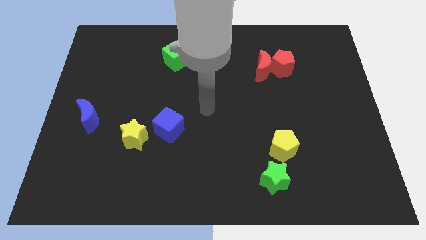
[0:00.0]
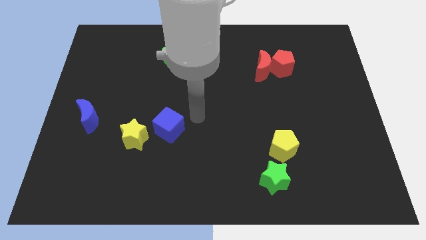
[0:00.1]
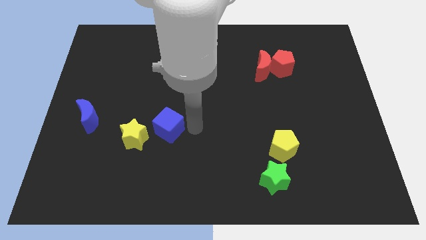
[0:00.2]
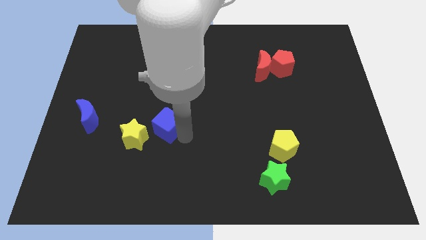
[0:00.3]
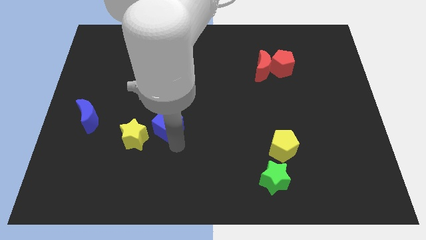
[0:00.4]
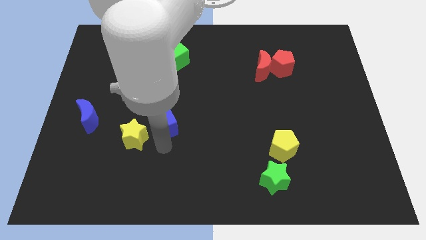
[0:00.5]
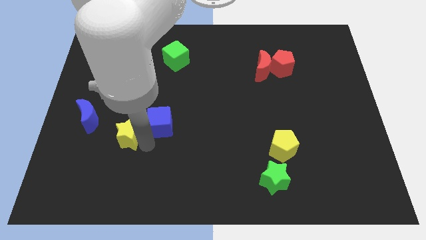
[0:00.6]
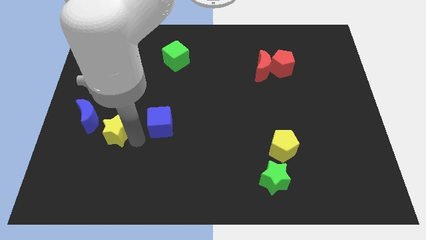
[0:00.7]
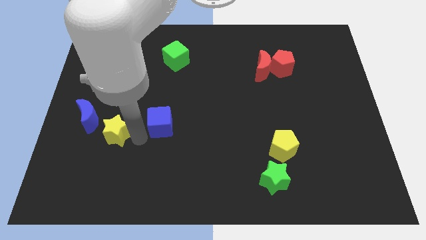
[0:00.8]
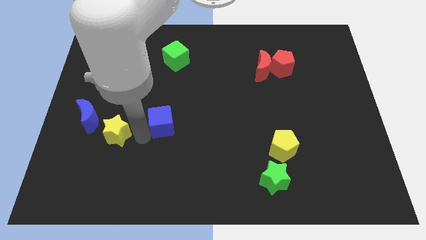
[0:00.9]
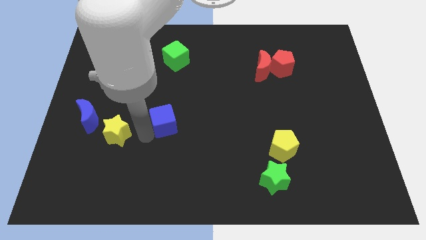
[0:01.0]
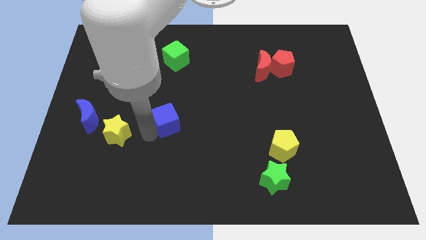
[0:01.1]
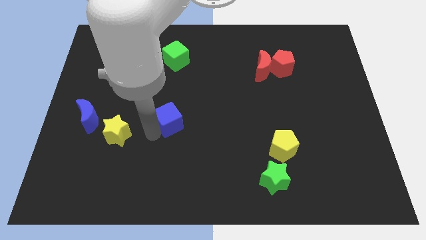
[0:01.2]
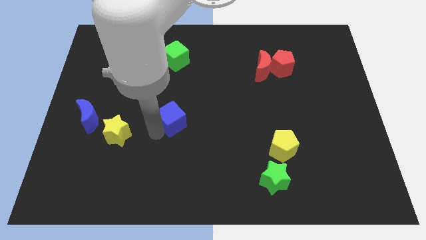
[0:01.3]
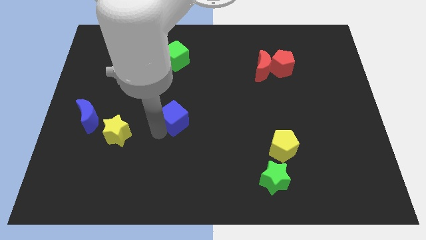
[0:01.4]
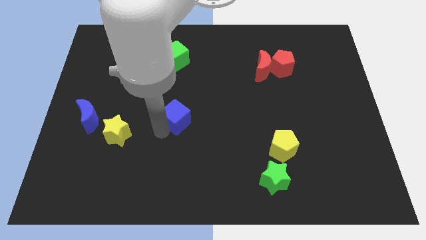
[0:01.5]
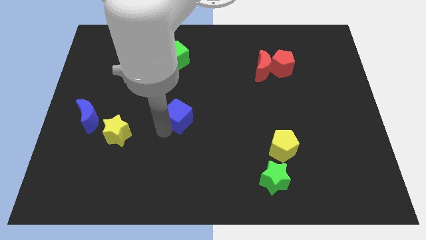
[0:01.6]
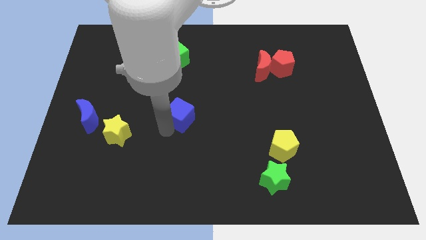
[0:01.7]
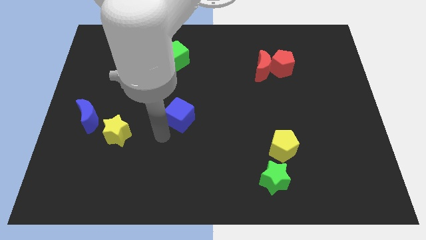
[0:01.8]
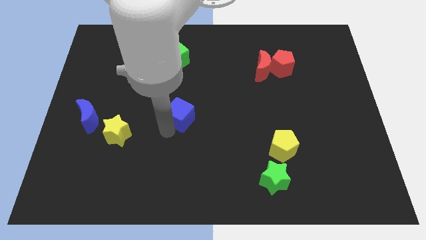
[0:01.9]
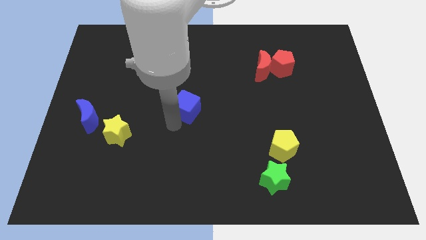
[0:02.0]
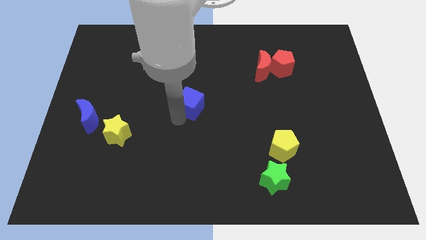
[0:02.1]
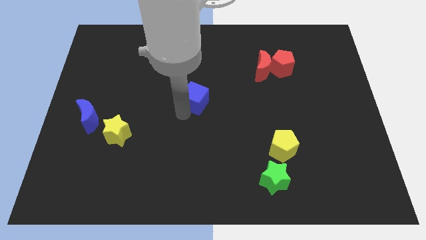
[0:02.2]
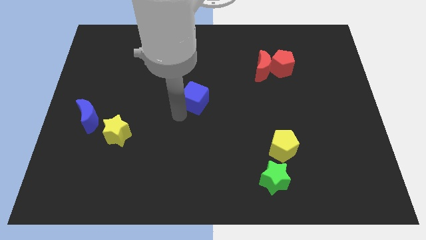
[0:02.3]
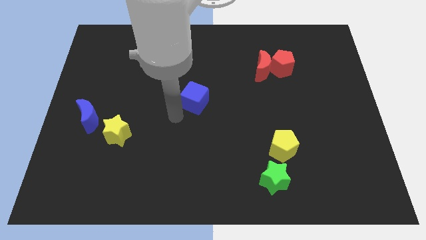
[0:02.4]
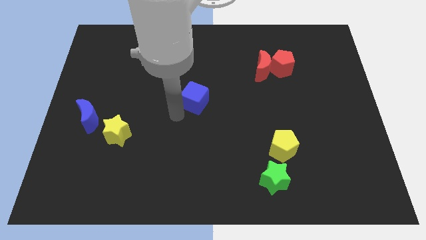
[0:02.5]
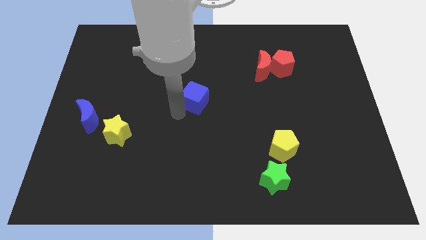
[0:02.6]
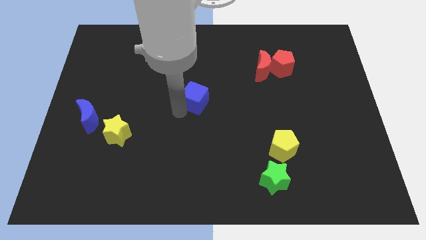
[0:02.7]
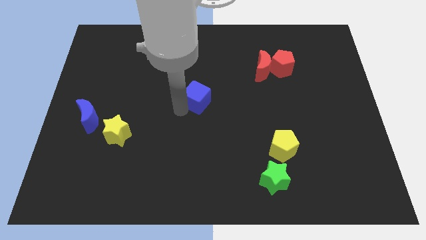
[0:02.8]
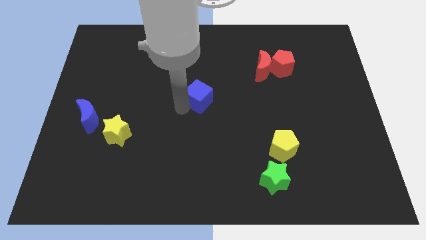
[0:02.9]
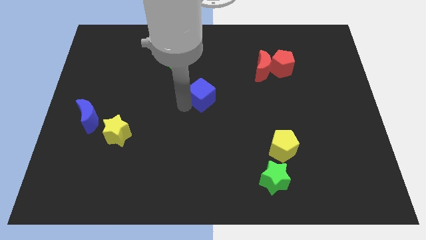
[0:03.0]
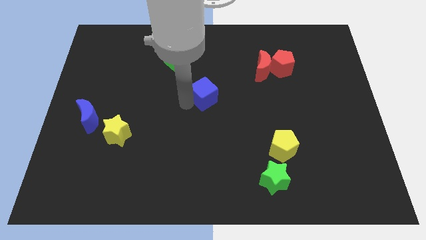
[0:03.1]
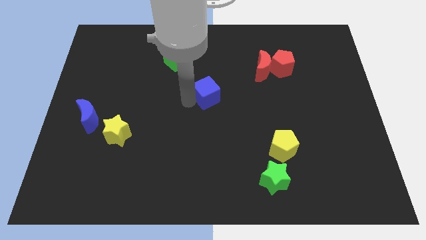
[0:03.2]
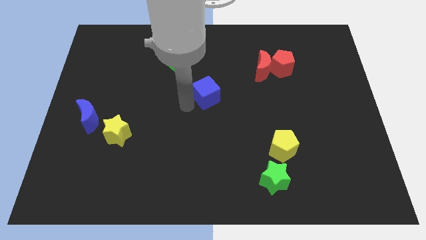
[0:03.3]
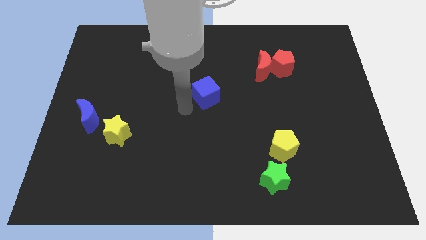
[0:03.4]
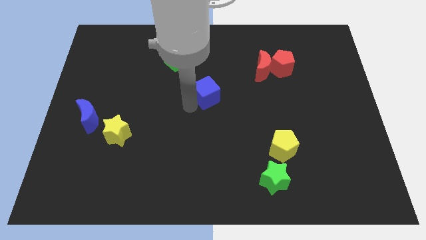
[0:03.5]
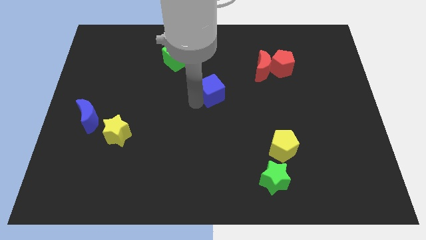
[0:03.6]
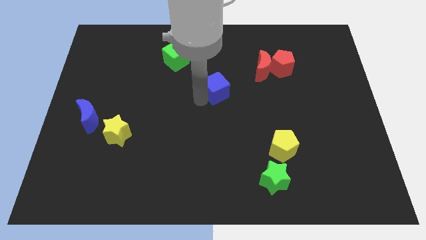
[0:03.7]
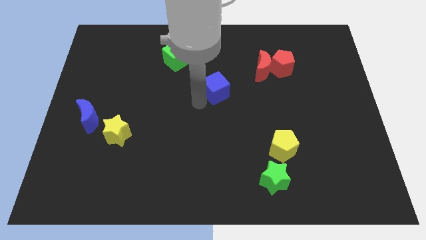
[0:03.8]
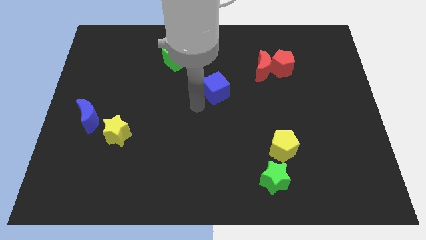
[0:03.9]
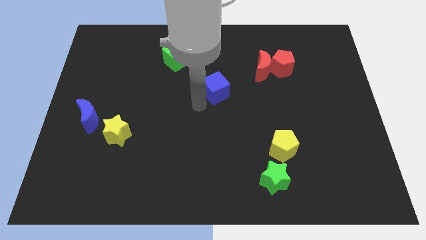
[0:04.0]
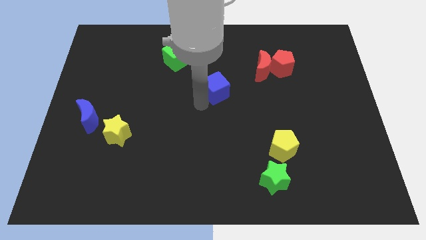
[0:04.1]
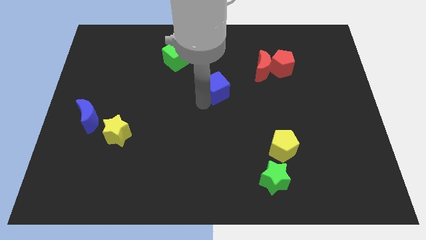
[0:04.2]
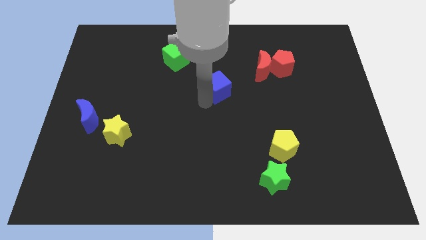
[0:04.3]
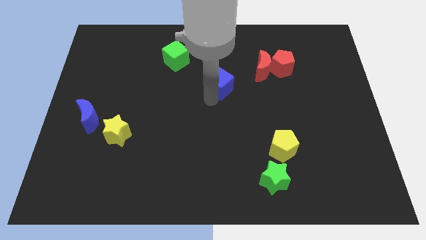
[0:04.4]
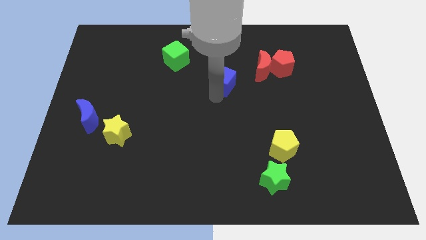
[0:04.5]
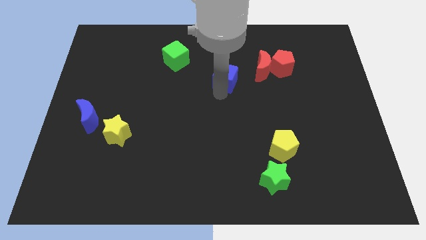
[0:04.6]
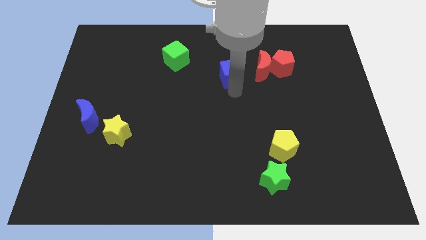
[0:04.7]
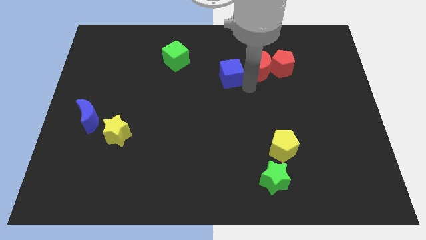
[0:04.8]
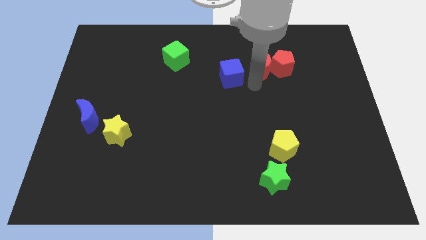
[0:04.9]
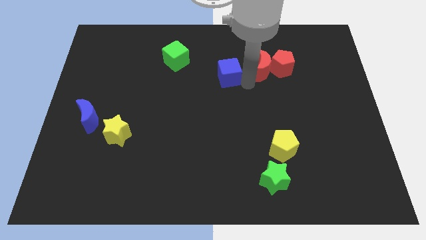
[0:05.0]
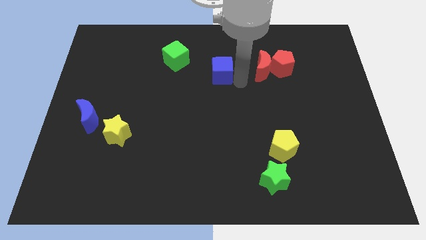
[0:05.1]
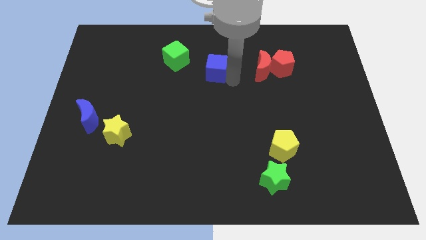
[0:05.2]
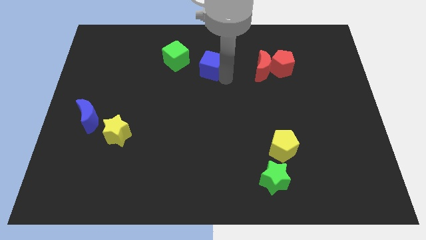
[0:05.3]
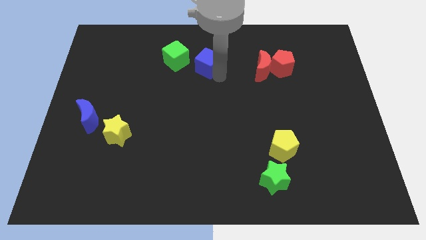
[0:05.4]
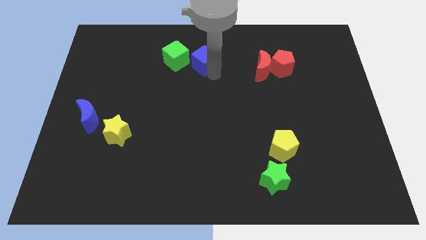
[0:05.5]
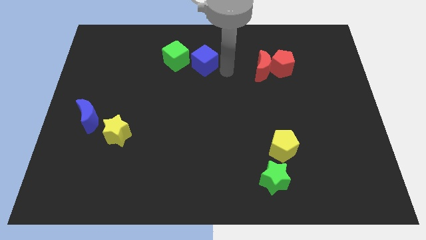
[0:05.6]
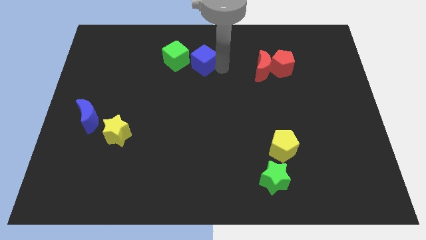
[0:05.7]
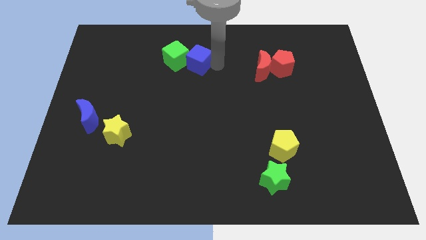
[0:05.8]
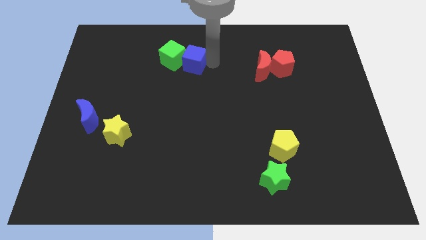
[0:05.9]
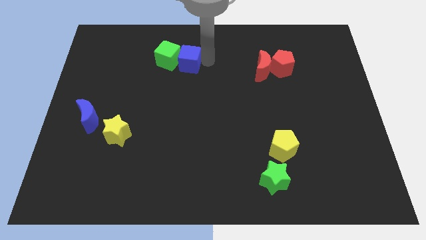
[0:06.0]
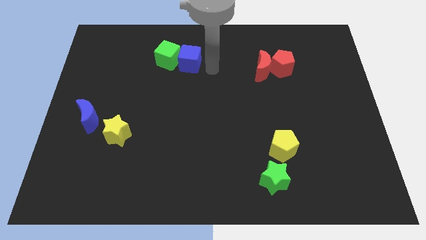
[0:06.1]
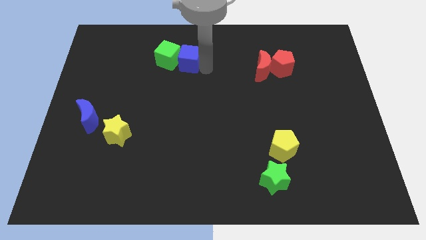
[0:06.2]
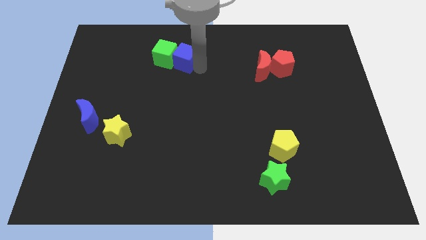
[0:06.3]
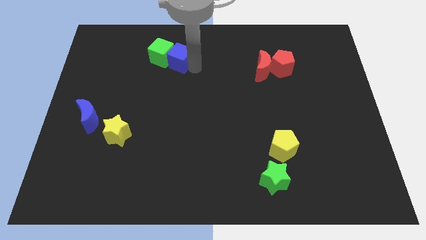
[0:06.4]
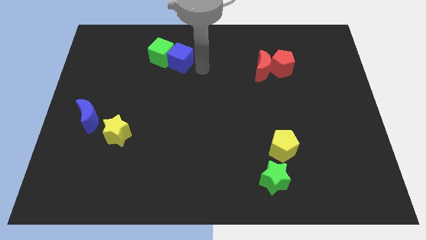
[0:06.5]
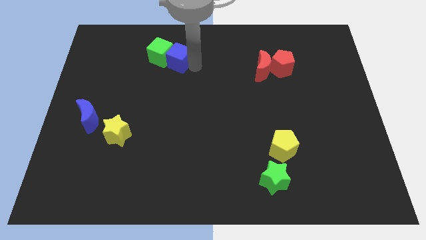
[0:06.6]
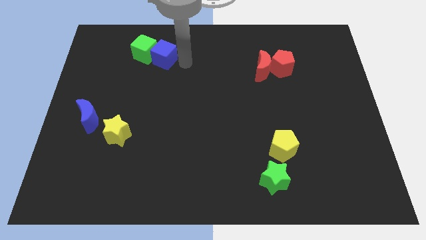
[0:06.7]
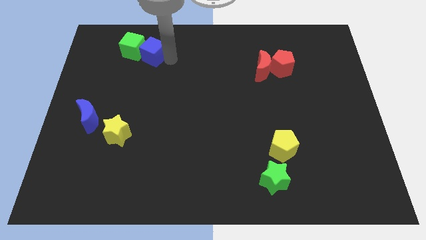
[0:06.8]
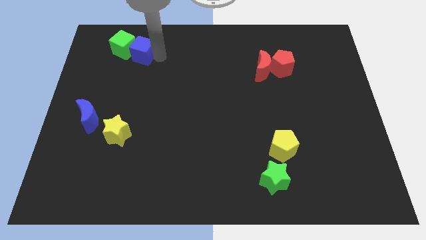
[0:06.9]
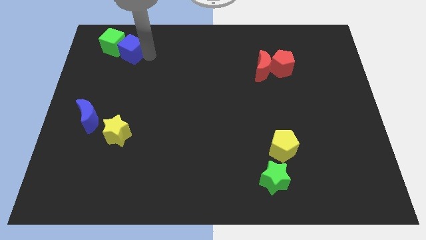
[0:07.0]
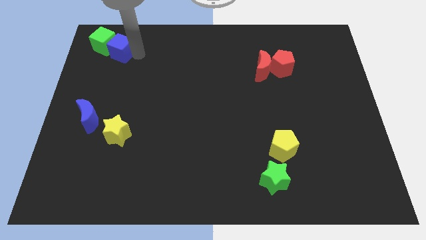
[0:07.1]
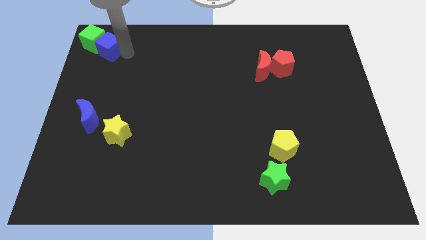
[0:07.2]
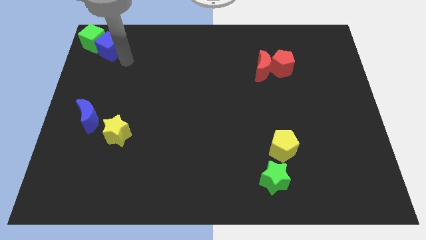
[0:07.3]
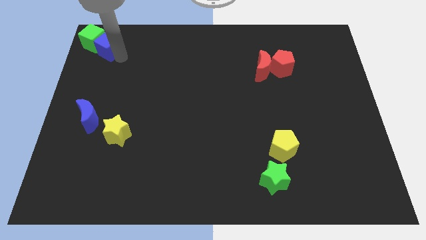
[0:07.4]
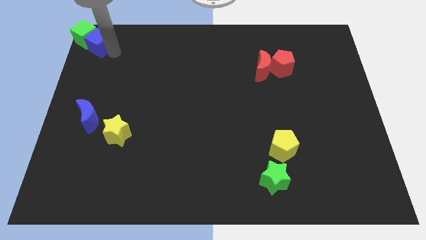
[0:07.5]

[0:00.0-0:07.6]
push the blue cube to the top left corner
